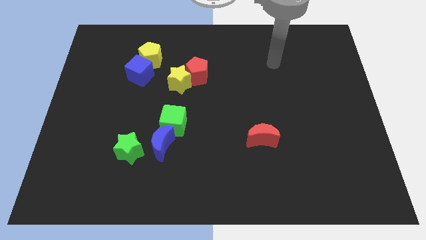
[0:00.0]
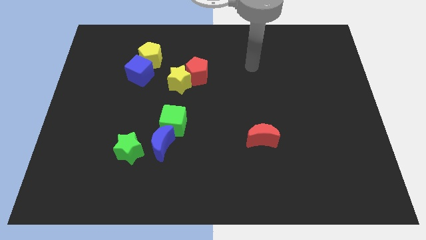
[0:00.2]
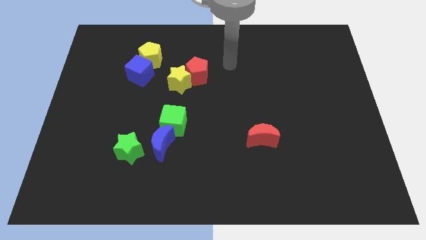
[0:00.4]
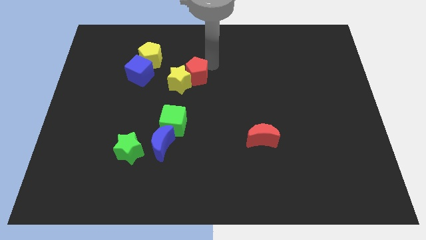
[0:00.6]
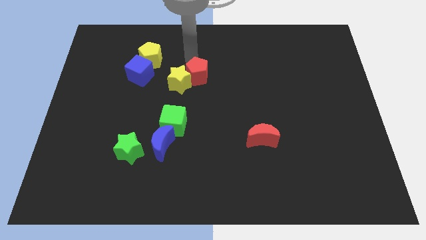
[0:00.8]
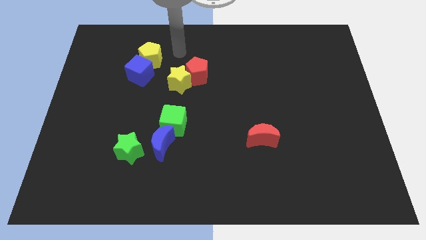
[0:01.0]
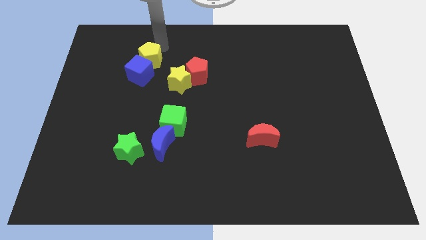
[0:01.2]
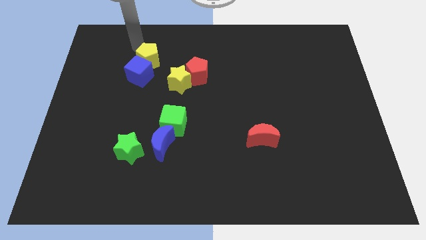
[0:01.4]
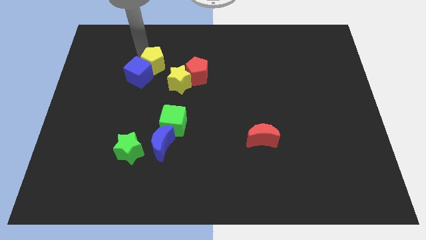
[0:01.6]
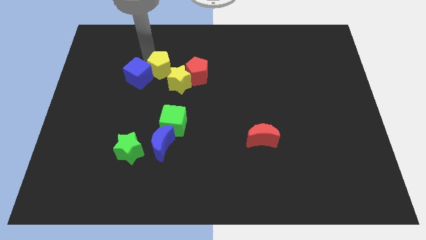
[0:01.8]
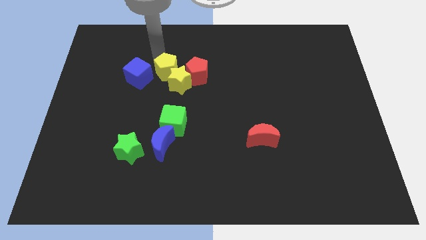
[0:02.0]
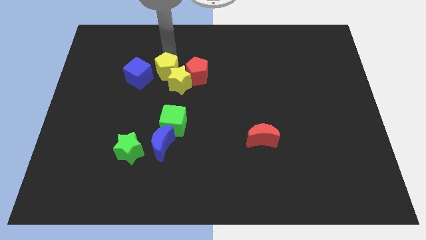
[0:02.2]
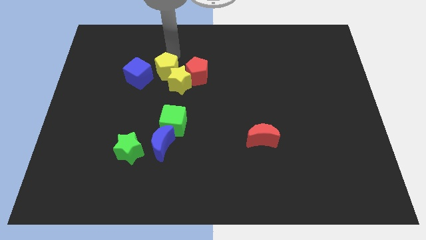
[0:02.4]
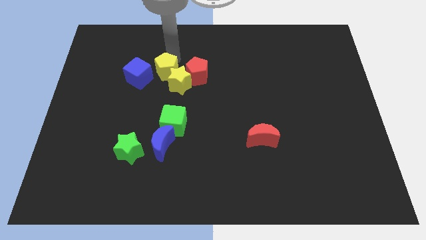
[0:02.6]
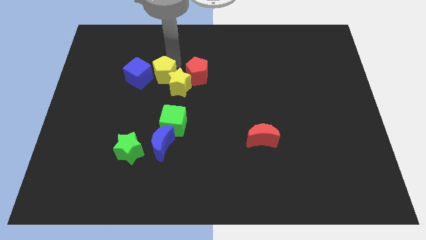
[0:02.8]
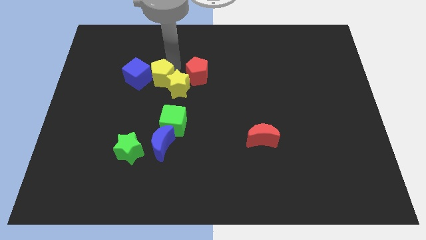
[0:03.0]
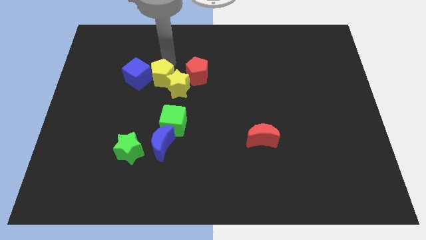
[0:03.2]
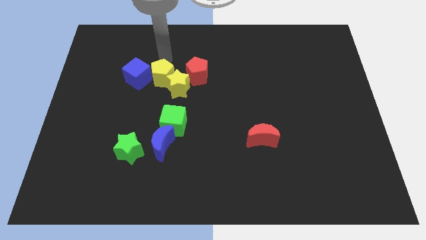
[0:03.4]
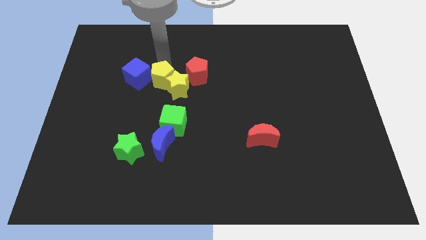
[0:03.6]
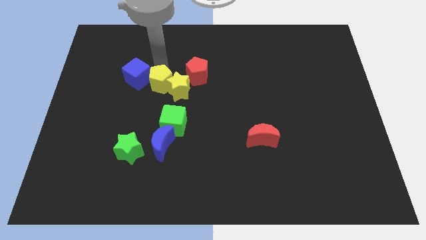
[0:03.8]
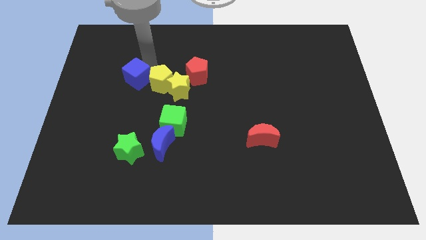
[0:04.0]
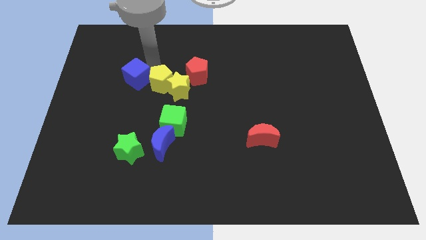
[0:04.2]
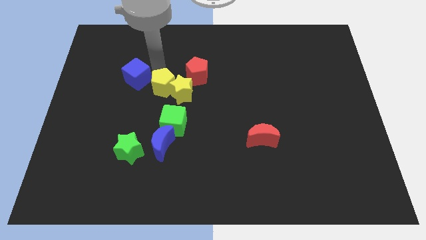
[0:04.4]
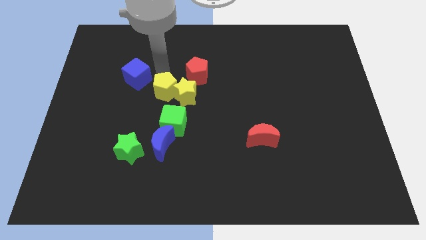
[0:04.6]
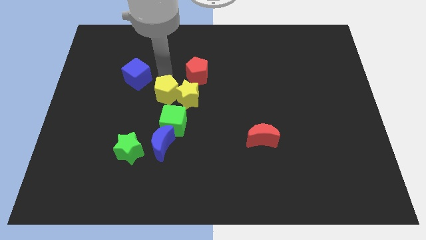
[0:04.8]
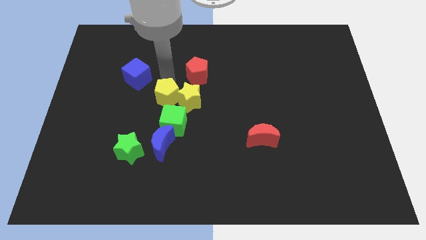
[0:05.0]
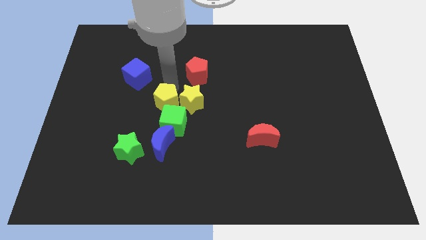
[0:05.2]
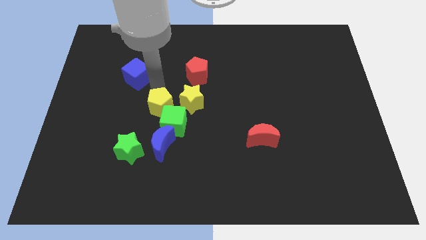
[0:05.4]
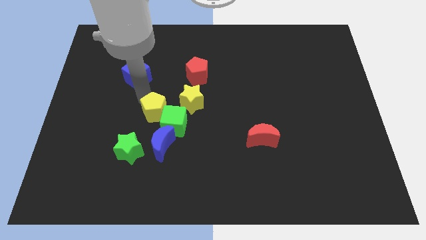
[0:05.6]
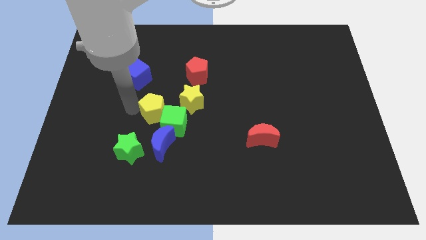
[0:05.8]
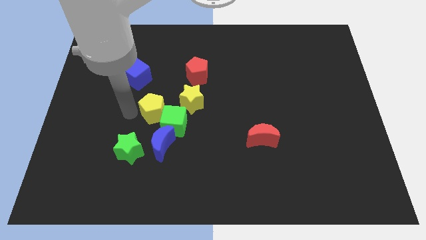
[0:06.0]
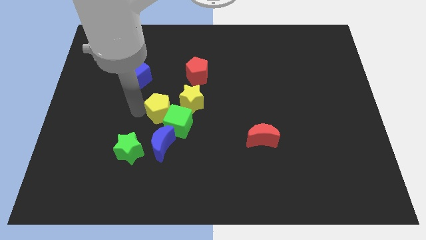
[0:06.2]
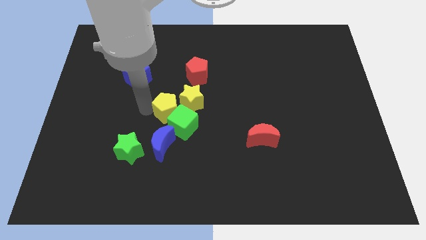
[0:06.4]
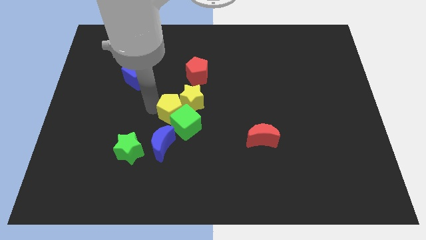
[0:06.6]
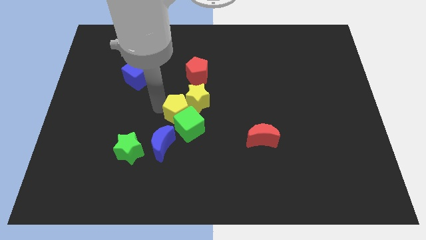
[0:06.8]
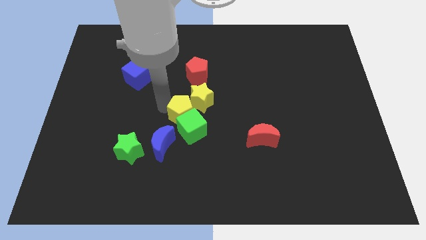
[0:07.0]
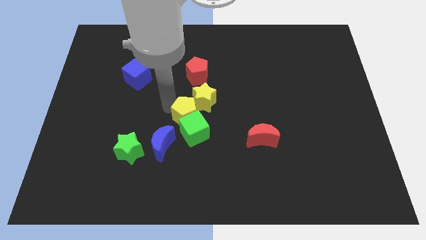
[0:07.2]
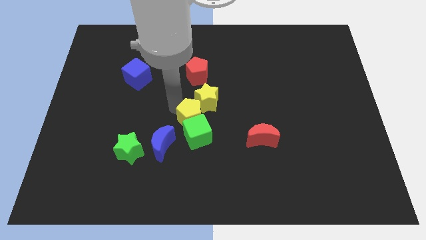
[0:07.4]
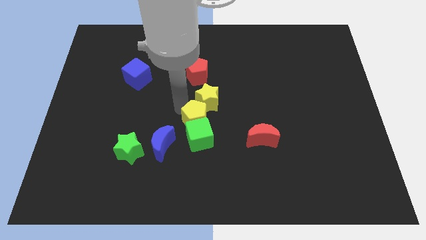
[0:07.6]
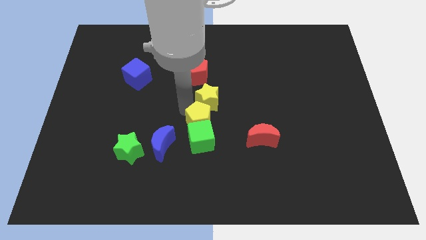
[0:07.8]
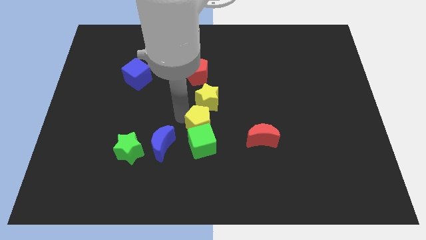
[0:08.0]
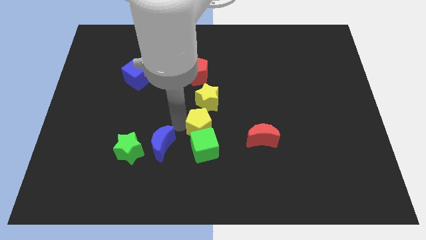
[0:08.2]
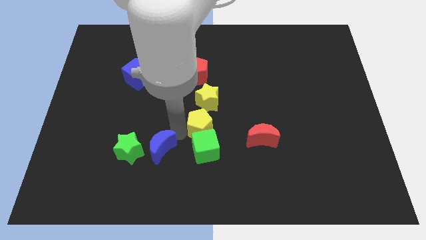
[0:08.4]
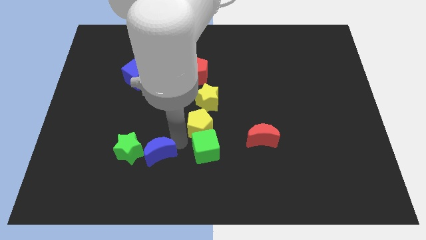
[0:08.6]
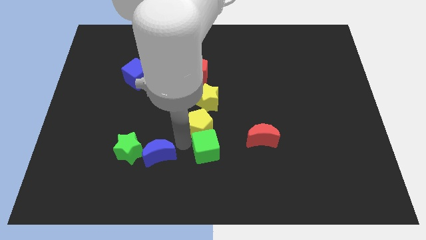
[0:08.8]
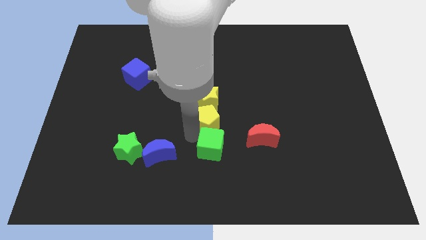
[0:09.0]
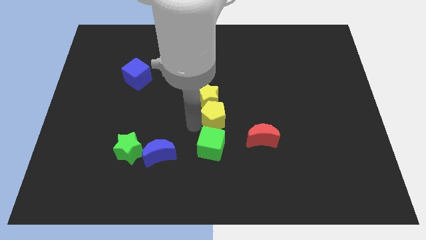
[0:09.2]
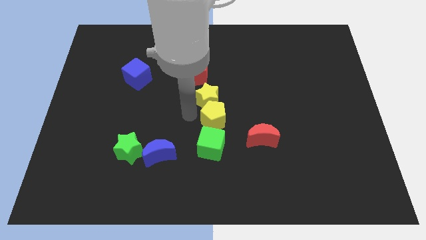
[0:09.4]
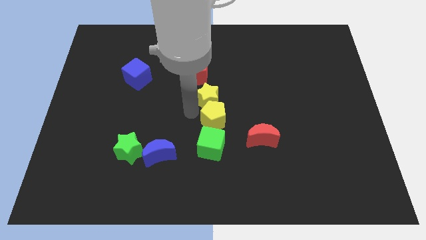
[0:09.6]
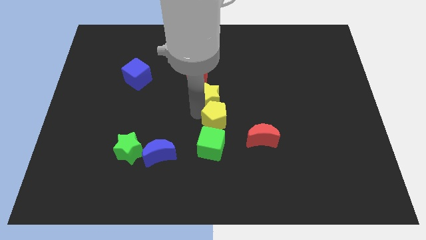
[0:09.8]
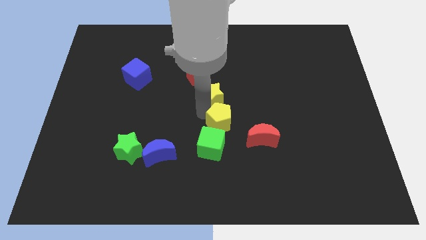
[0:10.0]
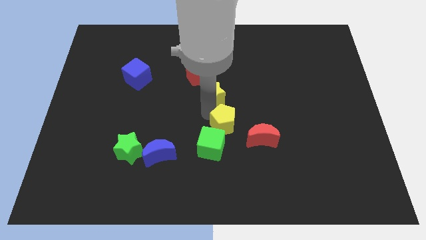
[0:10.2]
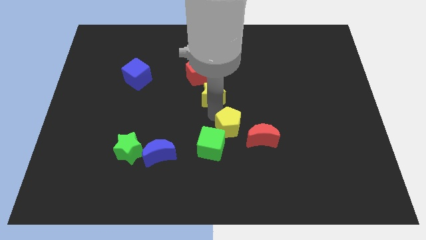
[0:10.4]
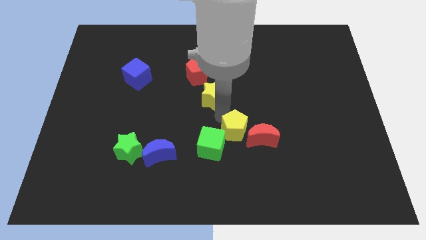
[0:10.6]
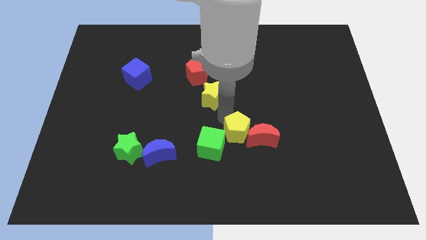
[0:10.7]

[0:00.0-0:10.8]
move the yellow pentagon to the red moon

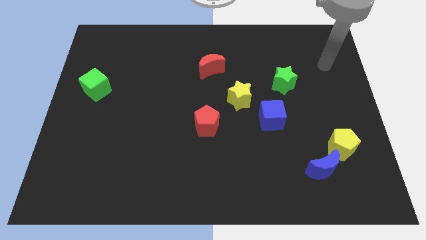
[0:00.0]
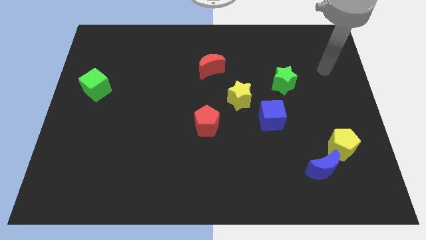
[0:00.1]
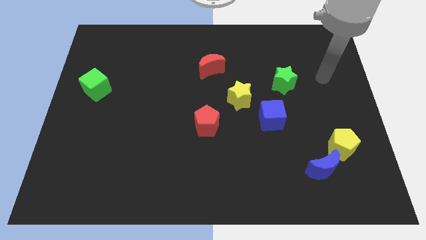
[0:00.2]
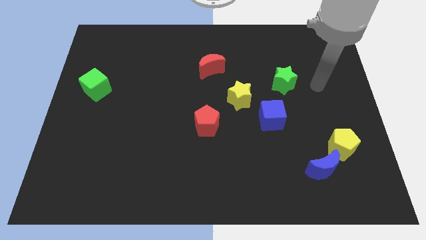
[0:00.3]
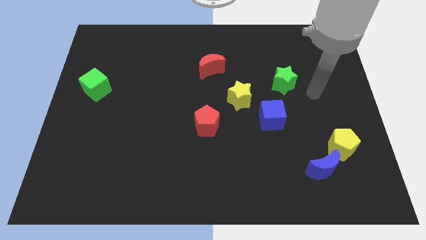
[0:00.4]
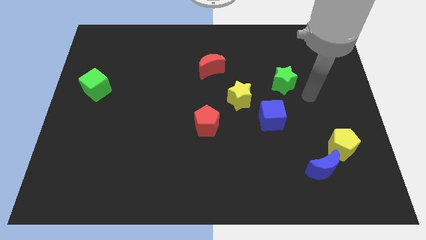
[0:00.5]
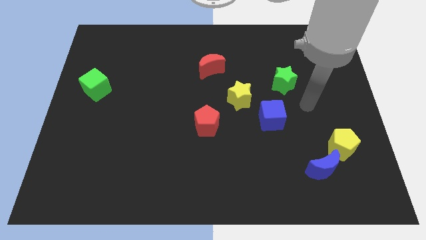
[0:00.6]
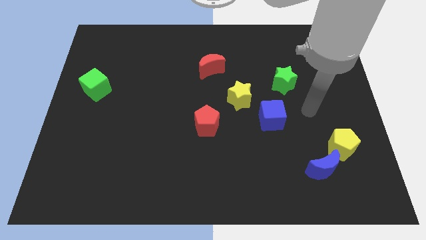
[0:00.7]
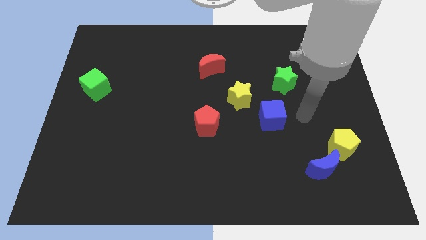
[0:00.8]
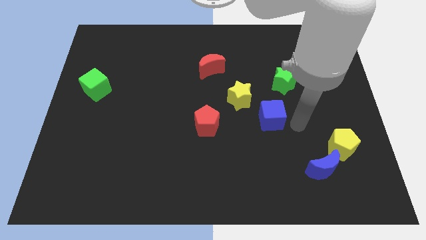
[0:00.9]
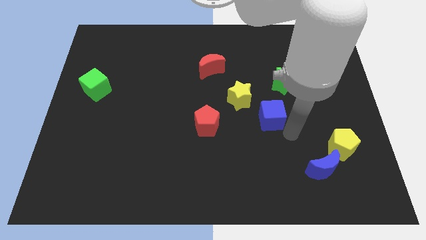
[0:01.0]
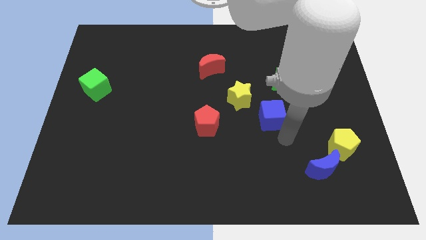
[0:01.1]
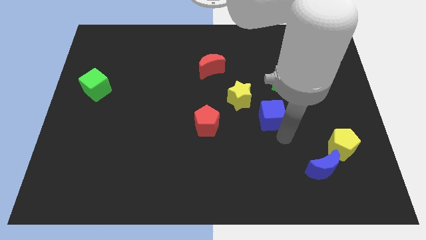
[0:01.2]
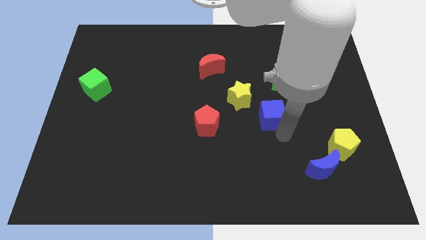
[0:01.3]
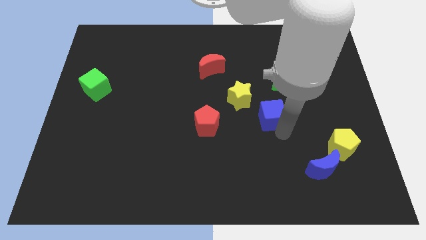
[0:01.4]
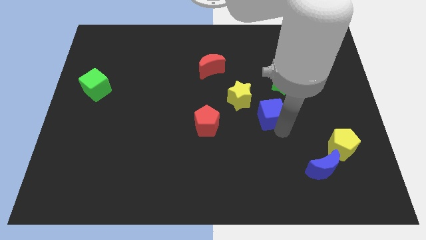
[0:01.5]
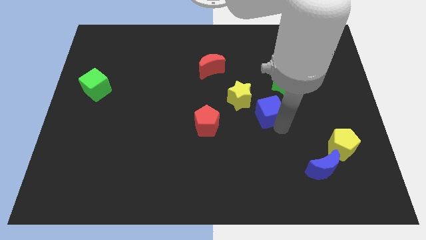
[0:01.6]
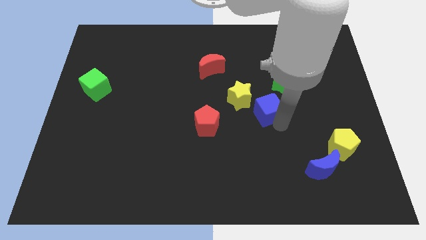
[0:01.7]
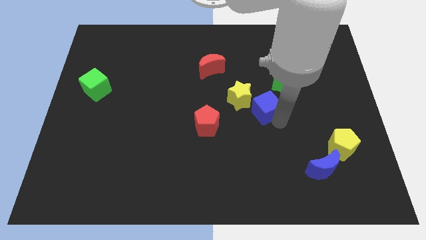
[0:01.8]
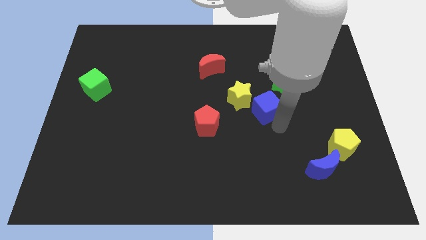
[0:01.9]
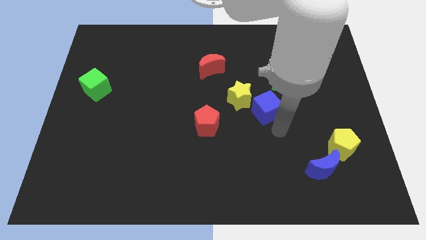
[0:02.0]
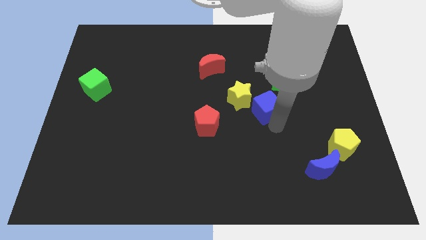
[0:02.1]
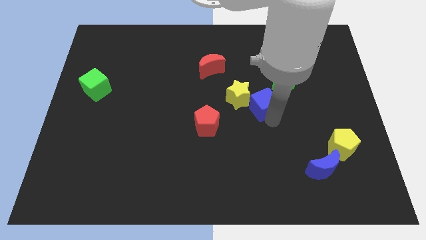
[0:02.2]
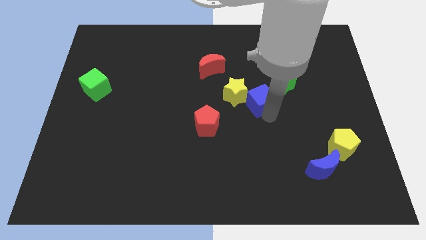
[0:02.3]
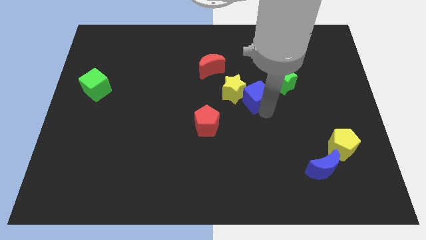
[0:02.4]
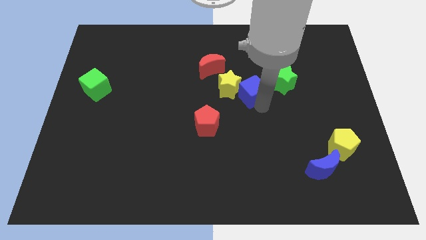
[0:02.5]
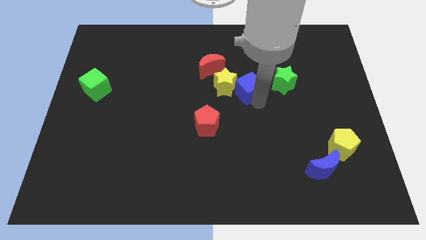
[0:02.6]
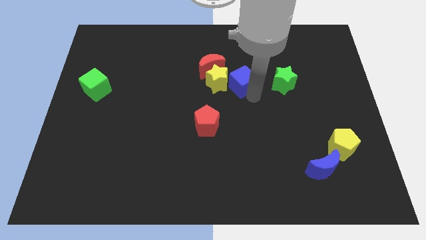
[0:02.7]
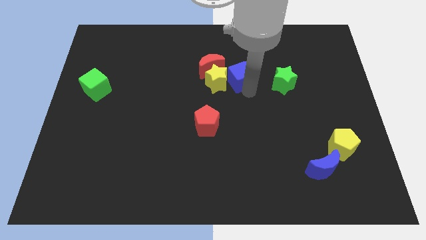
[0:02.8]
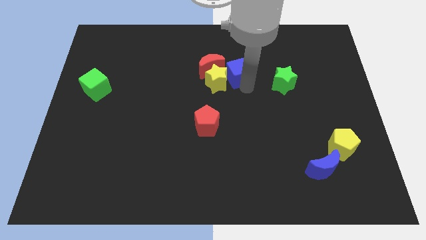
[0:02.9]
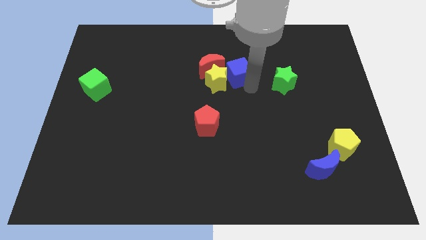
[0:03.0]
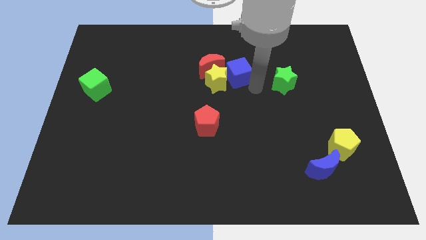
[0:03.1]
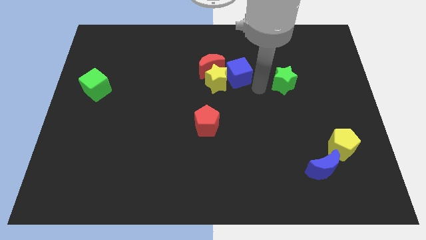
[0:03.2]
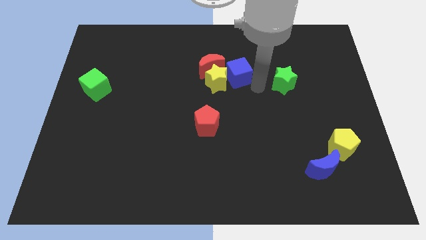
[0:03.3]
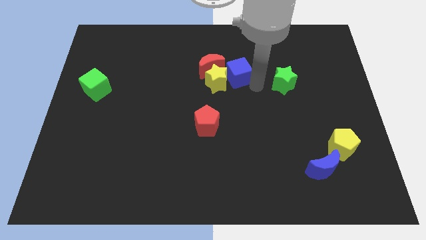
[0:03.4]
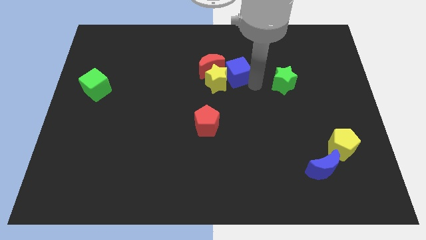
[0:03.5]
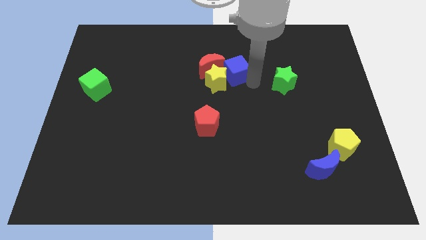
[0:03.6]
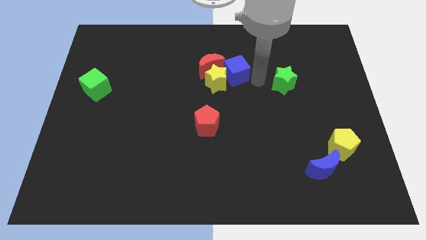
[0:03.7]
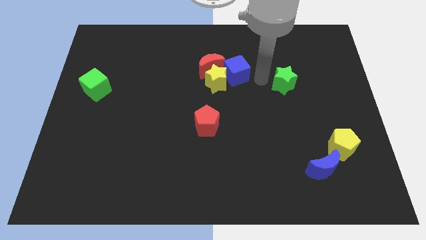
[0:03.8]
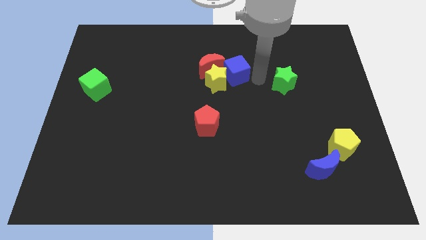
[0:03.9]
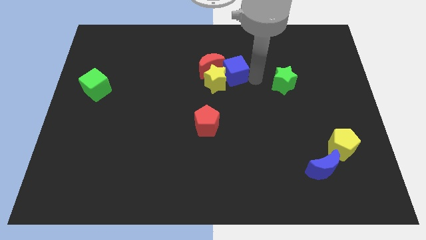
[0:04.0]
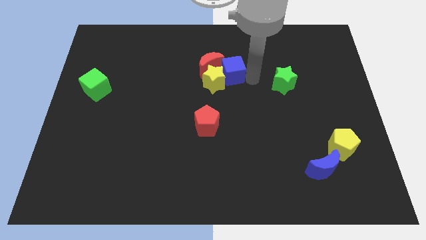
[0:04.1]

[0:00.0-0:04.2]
put the blue cube towards the red moon
